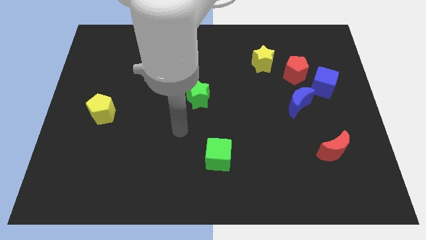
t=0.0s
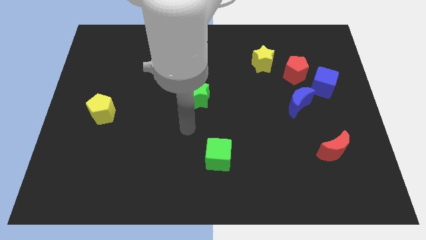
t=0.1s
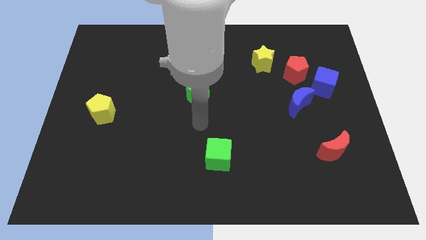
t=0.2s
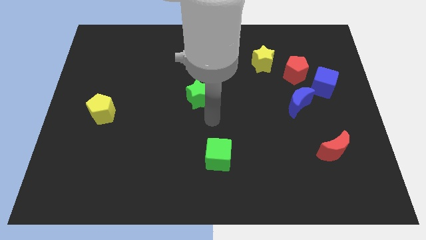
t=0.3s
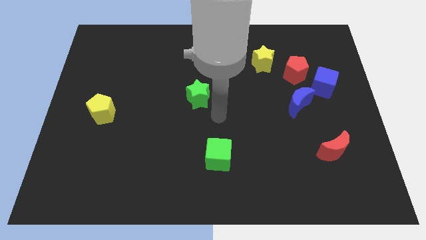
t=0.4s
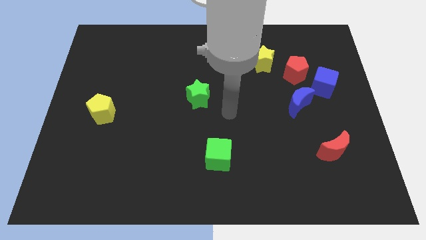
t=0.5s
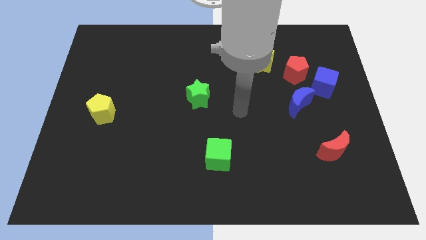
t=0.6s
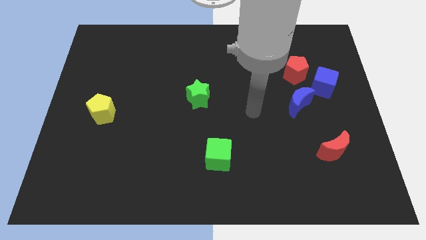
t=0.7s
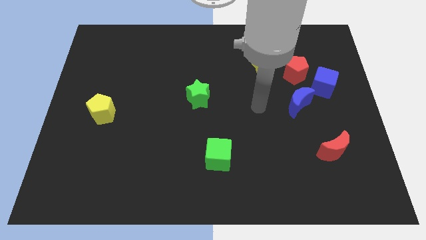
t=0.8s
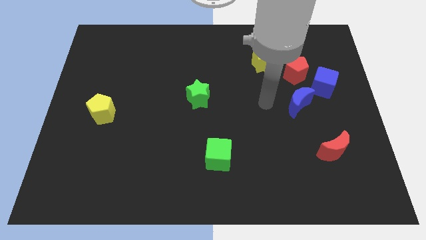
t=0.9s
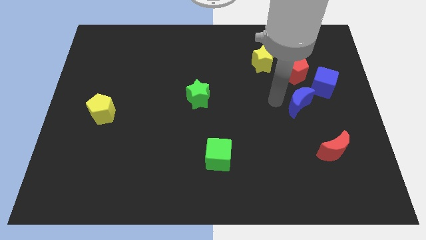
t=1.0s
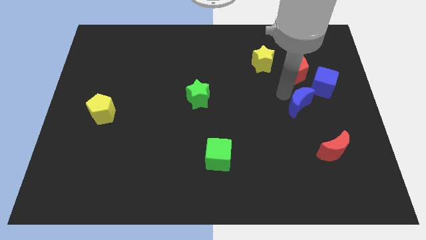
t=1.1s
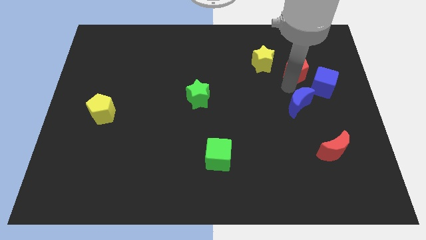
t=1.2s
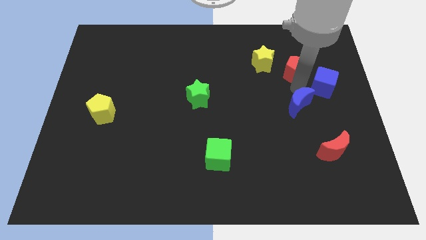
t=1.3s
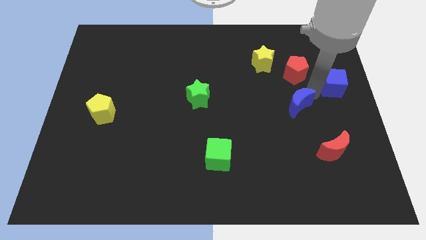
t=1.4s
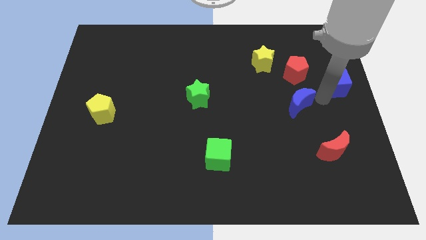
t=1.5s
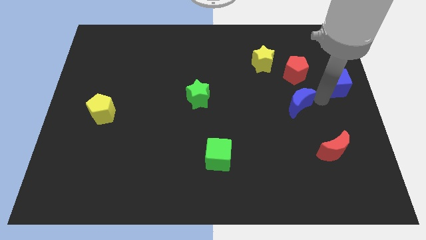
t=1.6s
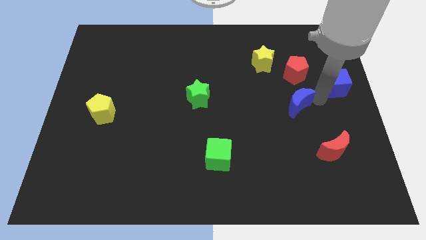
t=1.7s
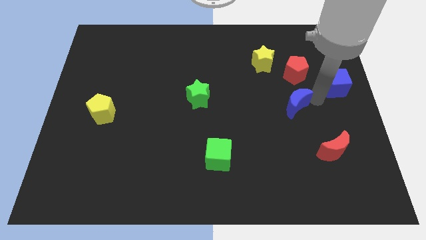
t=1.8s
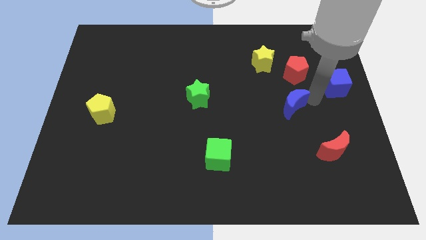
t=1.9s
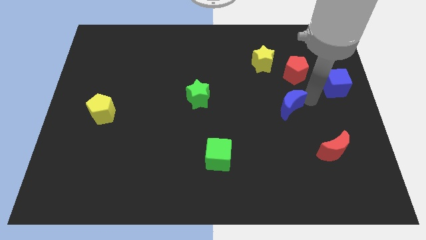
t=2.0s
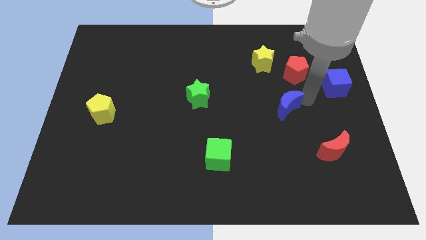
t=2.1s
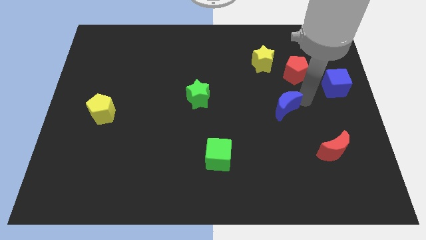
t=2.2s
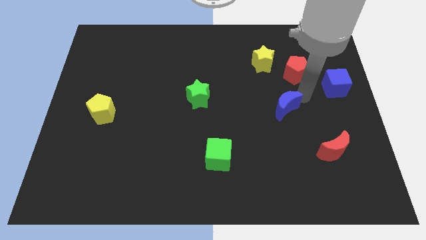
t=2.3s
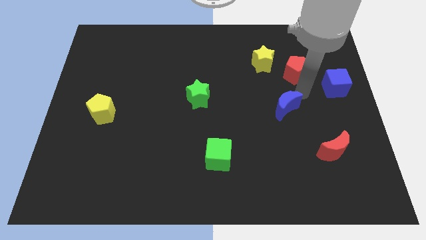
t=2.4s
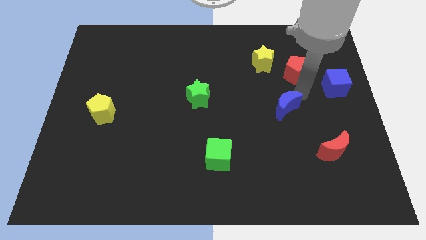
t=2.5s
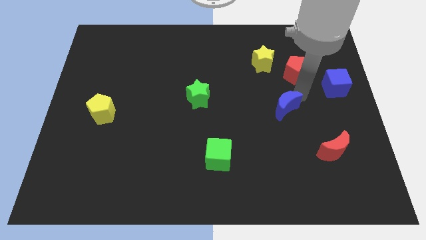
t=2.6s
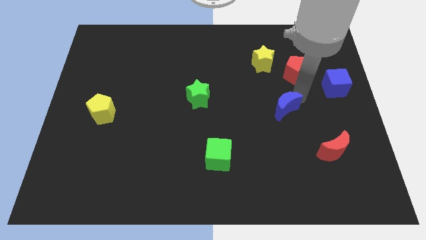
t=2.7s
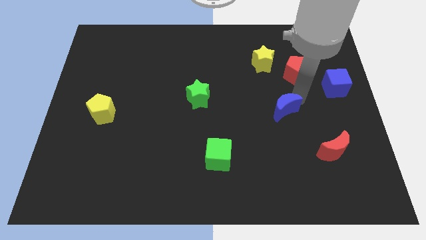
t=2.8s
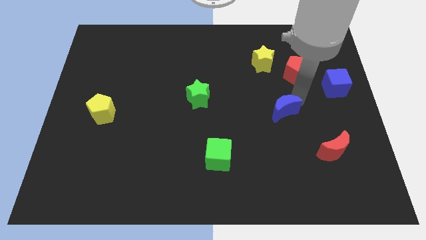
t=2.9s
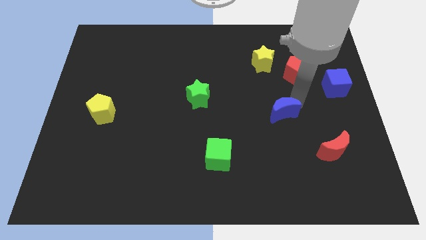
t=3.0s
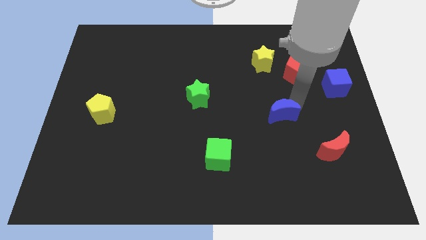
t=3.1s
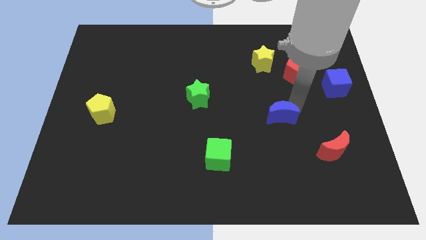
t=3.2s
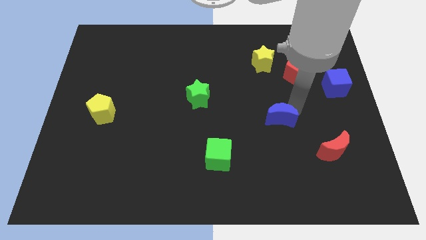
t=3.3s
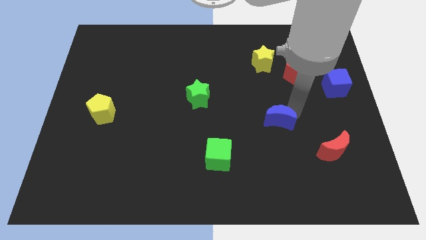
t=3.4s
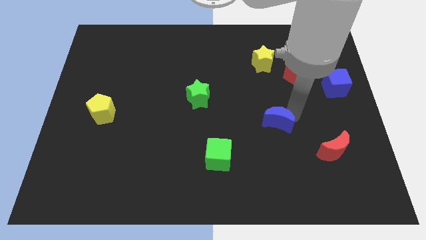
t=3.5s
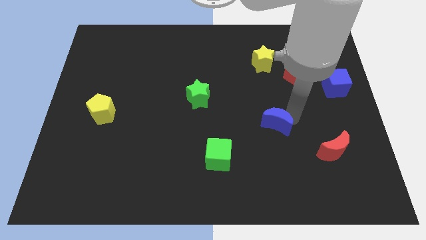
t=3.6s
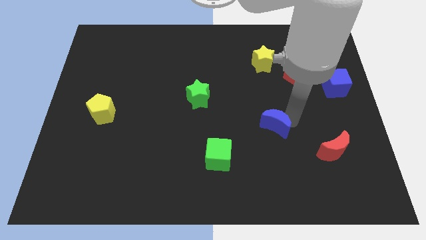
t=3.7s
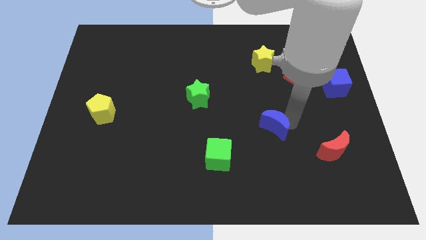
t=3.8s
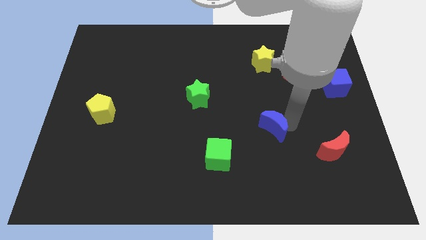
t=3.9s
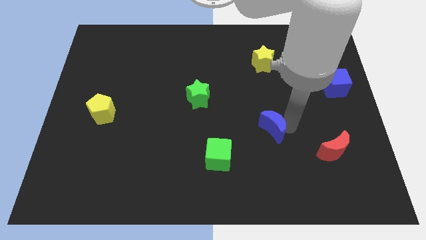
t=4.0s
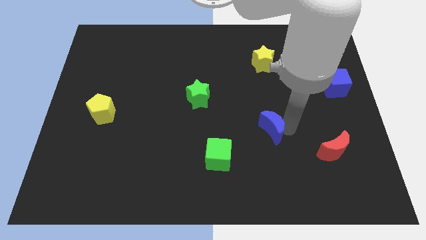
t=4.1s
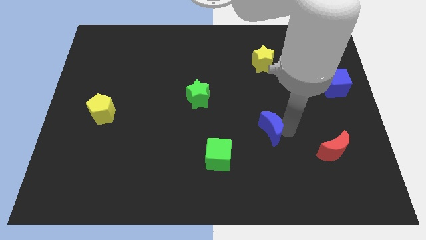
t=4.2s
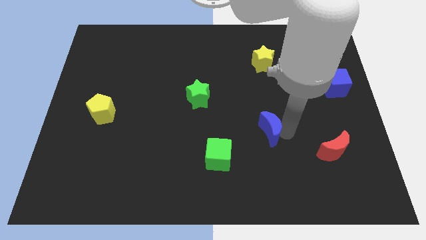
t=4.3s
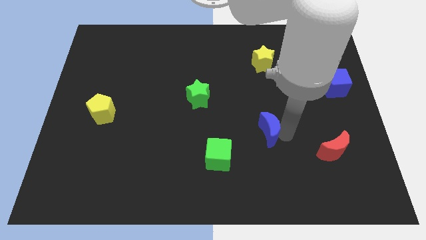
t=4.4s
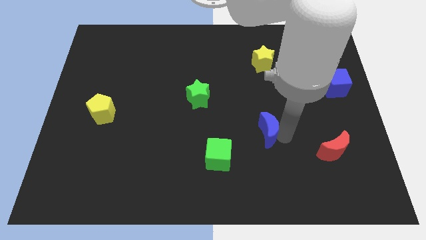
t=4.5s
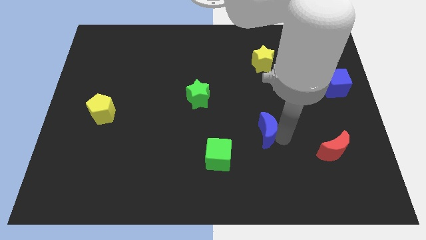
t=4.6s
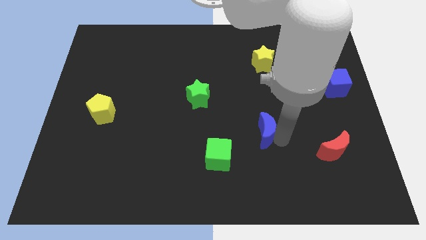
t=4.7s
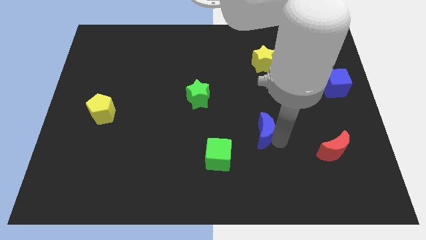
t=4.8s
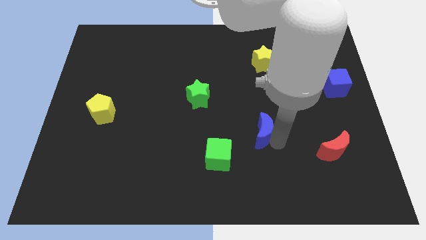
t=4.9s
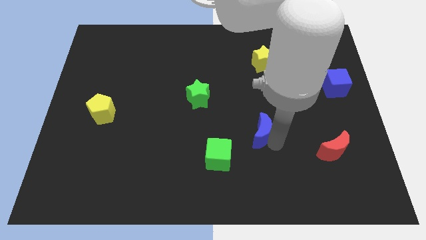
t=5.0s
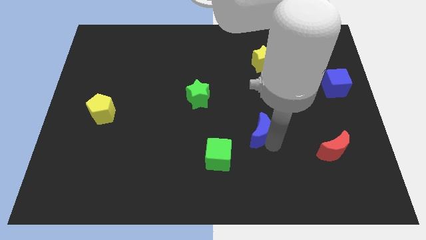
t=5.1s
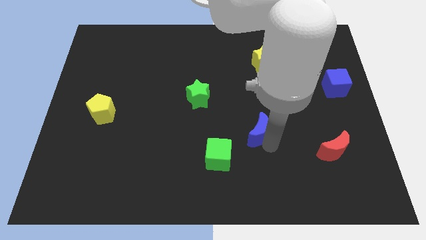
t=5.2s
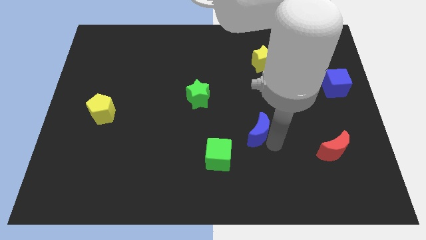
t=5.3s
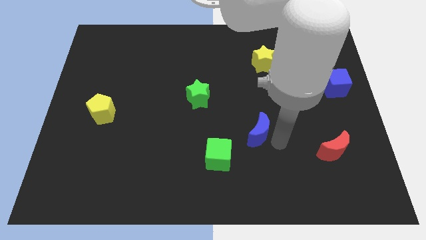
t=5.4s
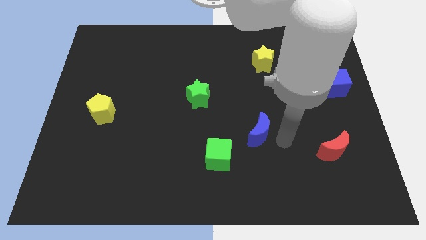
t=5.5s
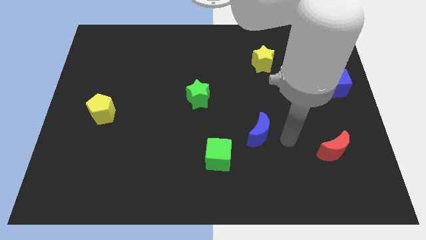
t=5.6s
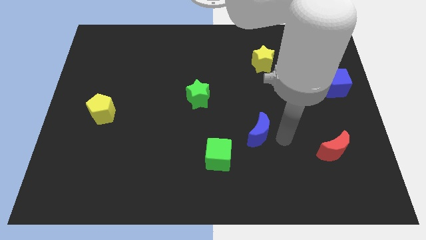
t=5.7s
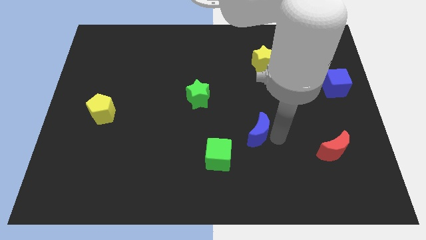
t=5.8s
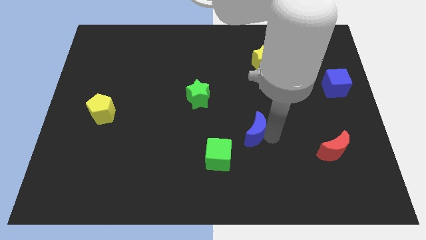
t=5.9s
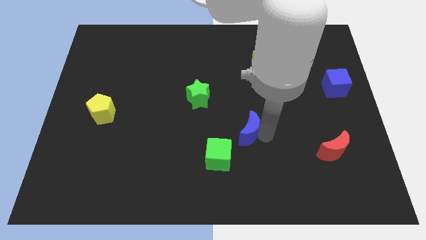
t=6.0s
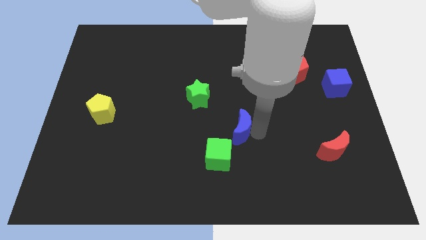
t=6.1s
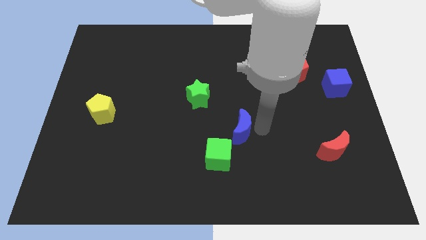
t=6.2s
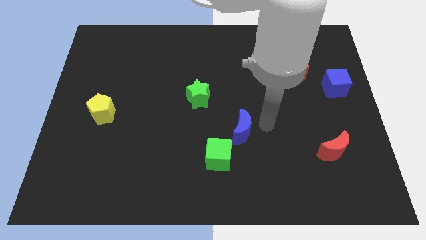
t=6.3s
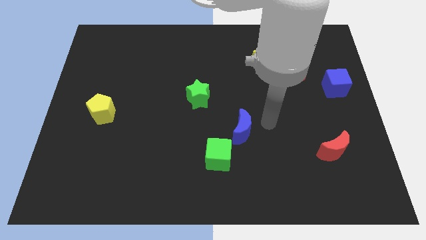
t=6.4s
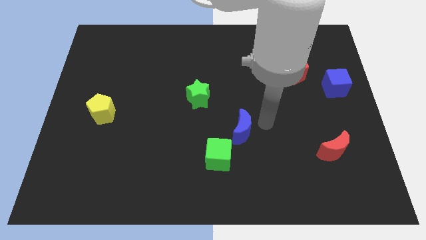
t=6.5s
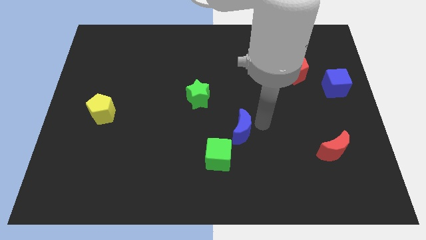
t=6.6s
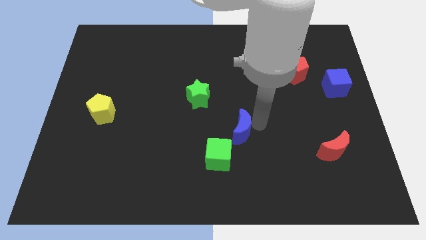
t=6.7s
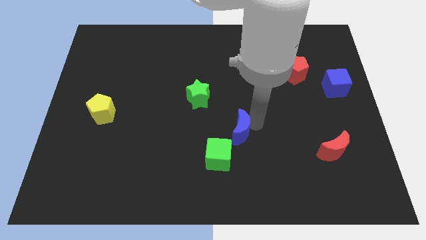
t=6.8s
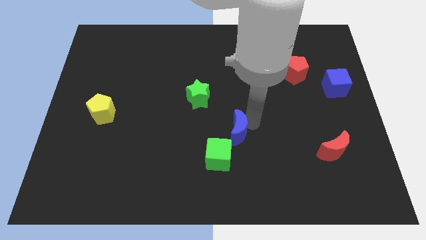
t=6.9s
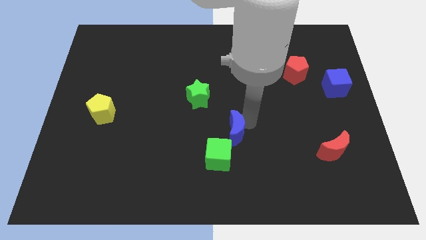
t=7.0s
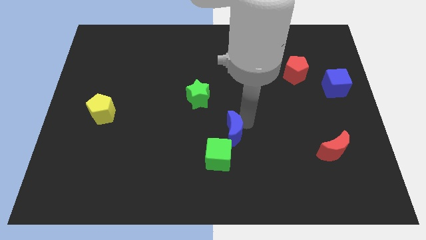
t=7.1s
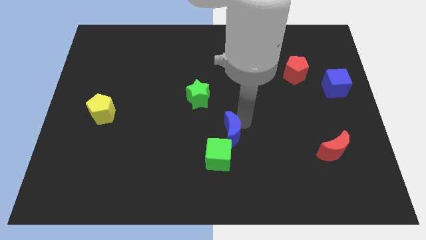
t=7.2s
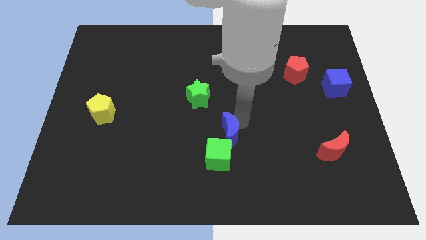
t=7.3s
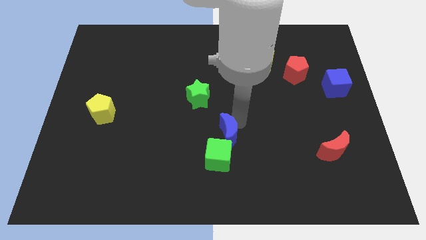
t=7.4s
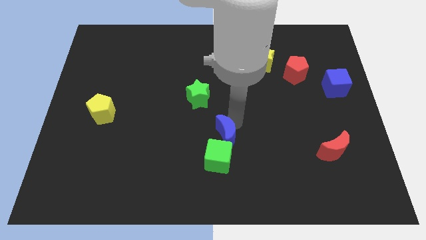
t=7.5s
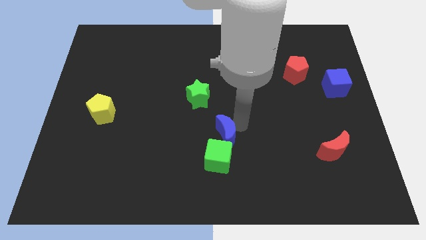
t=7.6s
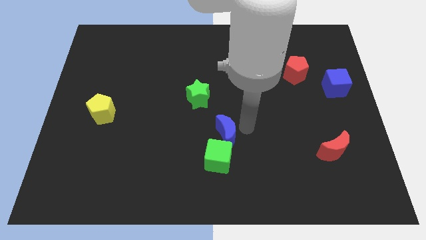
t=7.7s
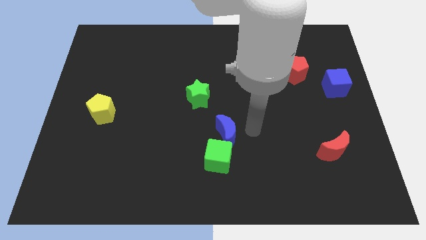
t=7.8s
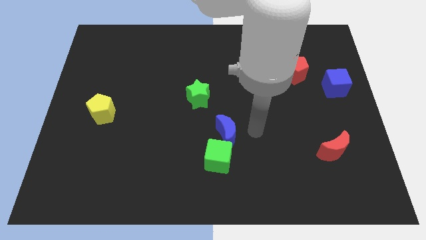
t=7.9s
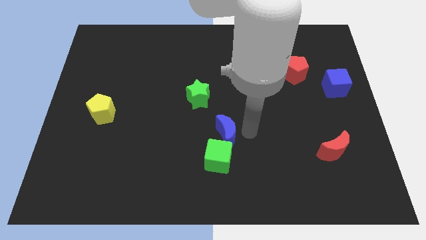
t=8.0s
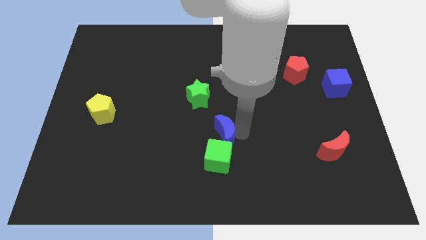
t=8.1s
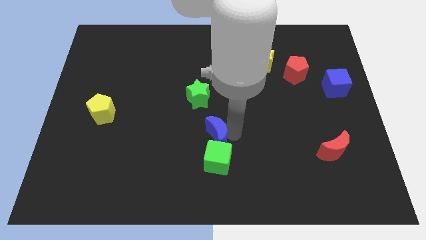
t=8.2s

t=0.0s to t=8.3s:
slide the blue moon to the top left of the green cube
